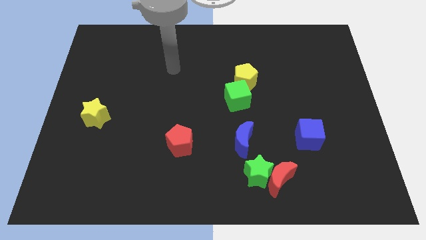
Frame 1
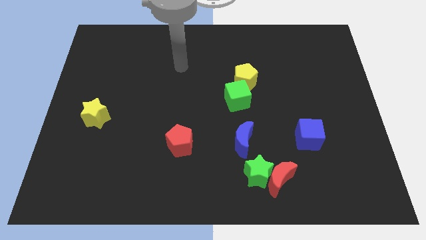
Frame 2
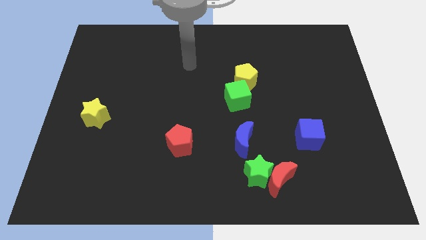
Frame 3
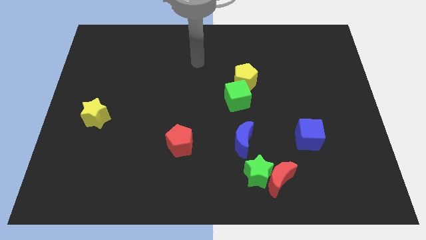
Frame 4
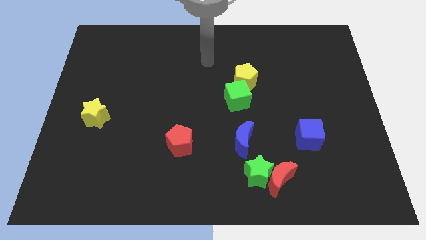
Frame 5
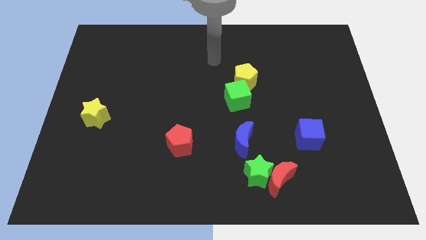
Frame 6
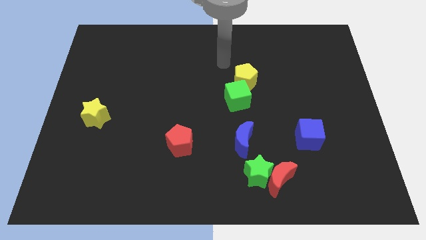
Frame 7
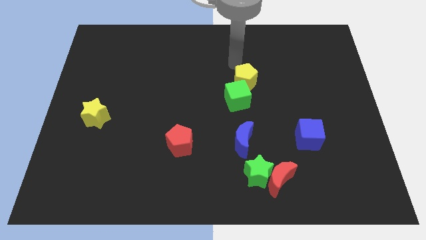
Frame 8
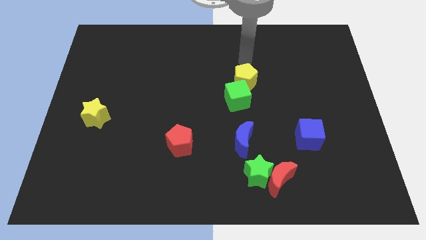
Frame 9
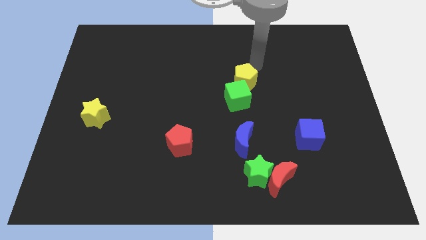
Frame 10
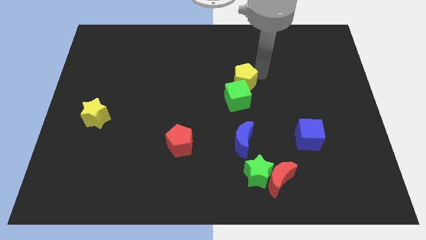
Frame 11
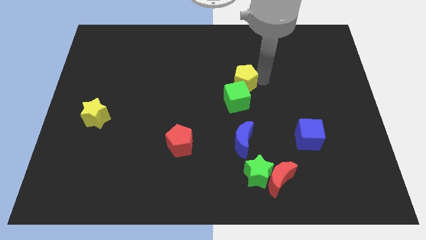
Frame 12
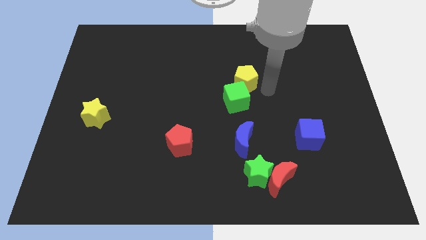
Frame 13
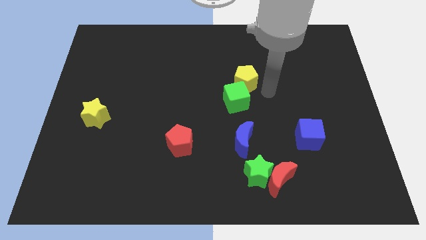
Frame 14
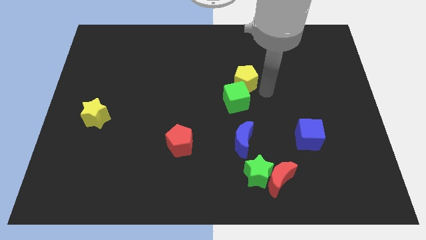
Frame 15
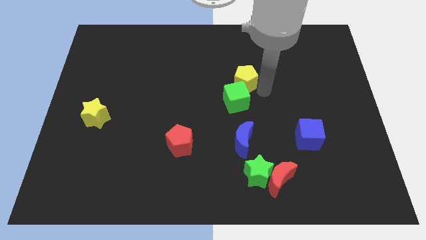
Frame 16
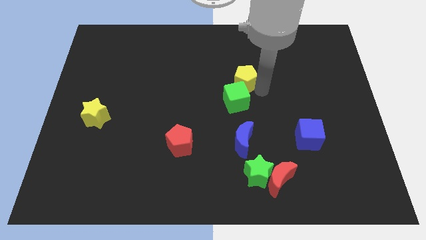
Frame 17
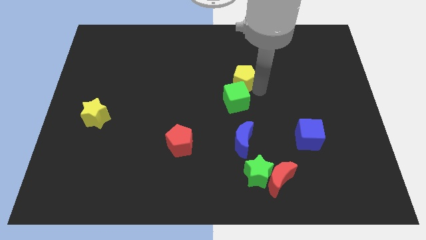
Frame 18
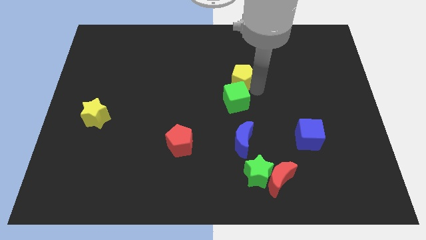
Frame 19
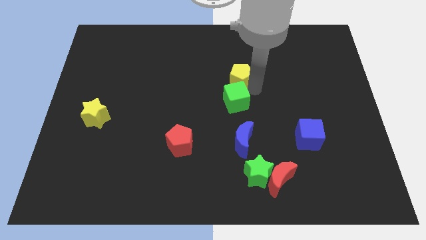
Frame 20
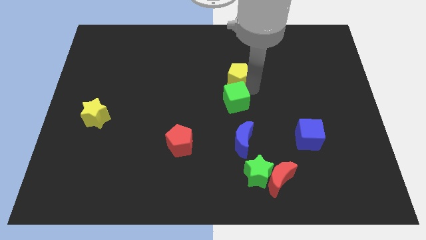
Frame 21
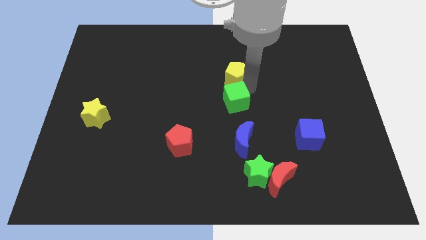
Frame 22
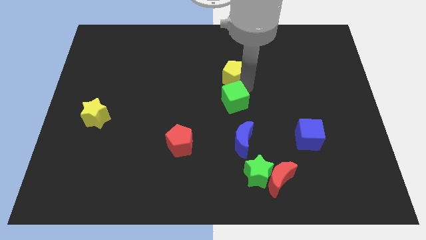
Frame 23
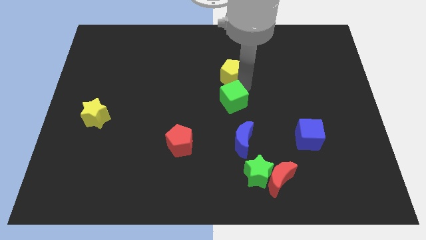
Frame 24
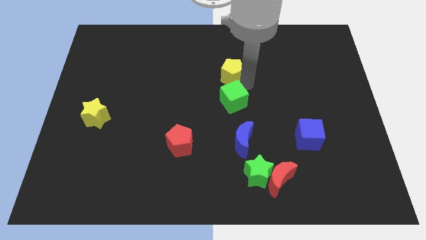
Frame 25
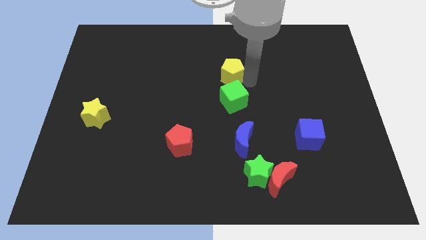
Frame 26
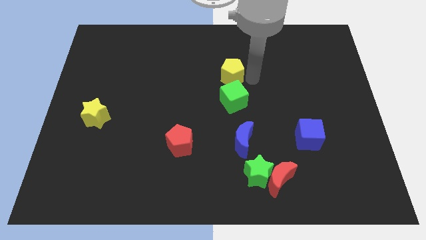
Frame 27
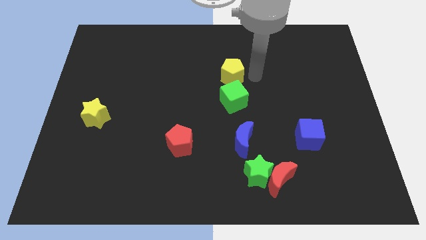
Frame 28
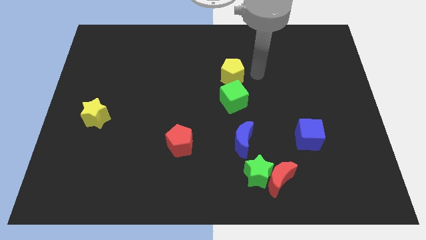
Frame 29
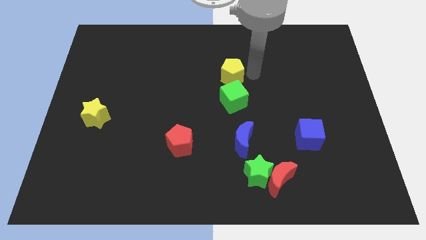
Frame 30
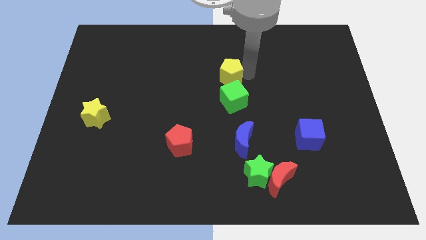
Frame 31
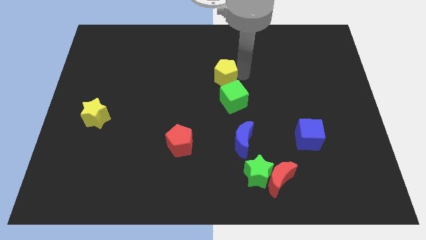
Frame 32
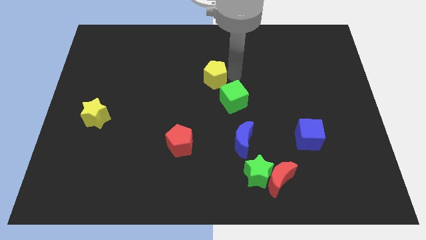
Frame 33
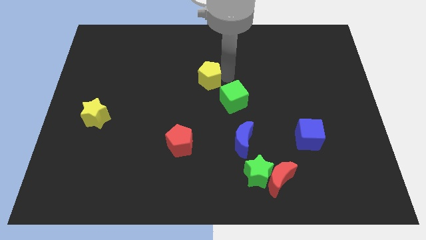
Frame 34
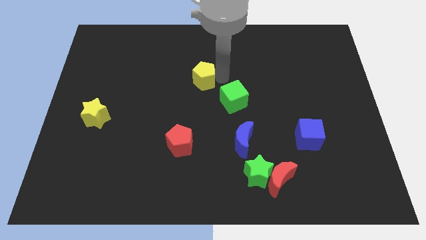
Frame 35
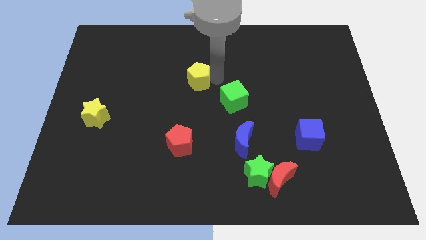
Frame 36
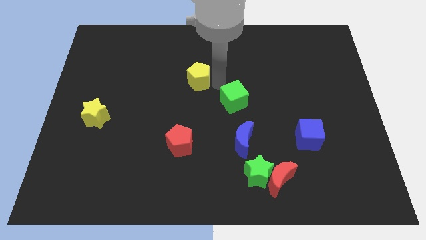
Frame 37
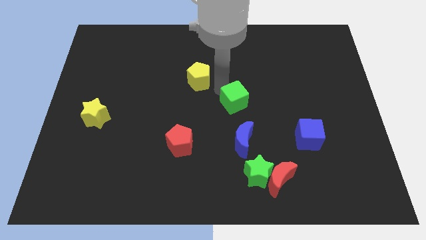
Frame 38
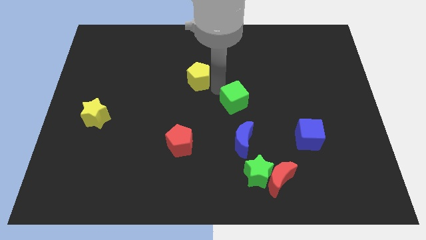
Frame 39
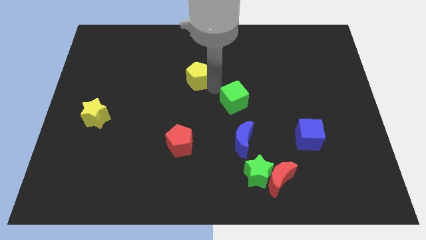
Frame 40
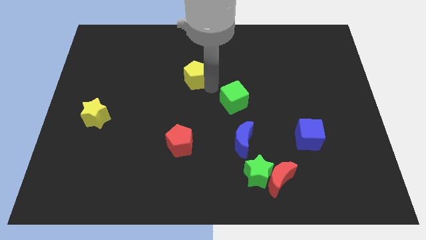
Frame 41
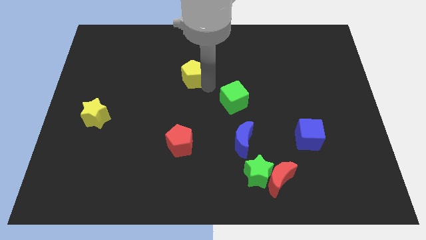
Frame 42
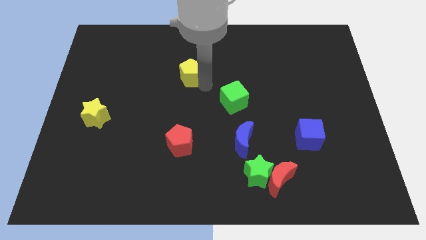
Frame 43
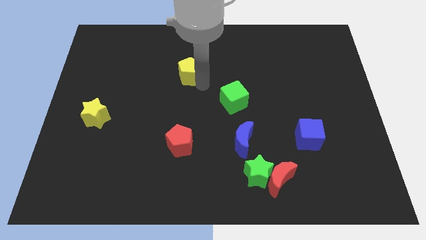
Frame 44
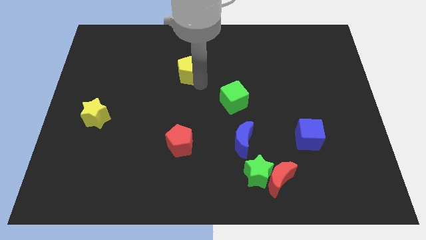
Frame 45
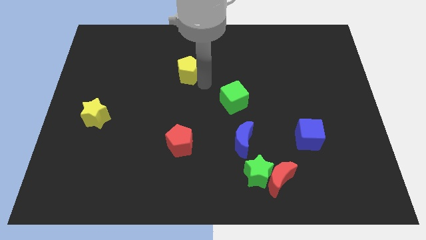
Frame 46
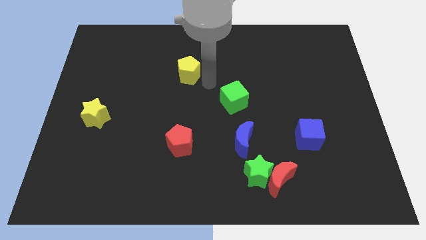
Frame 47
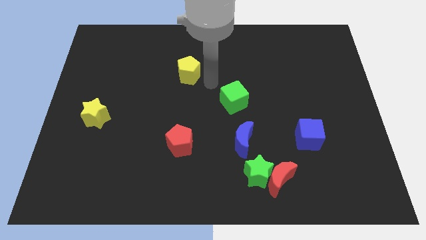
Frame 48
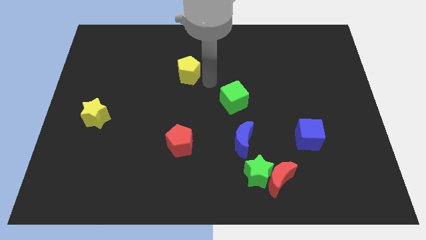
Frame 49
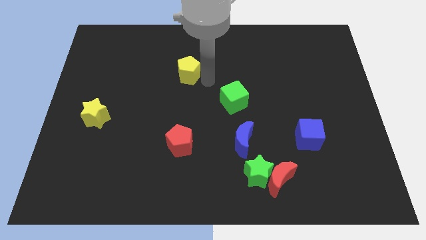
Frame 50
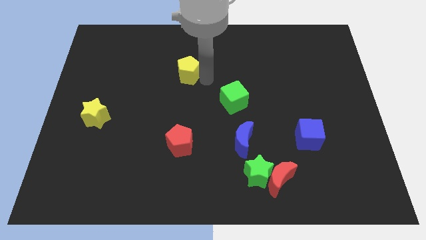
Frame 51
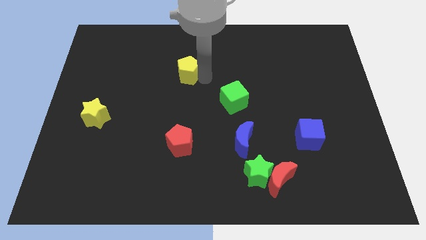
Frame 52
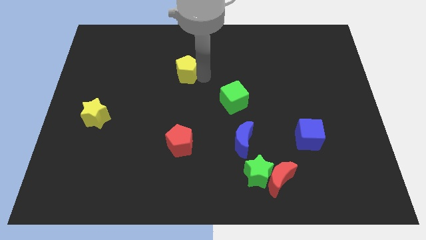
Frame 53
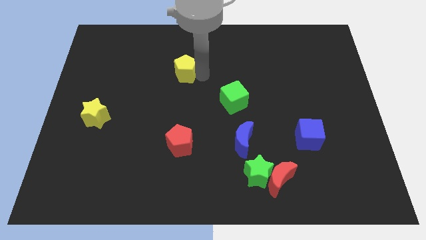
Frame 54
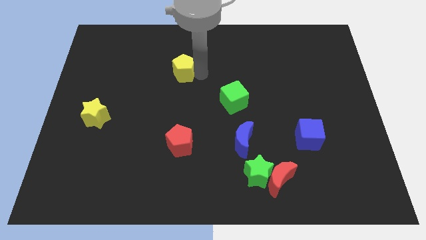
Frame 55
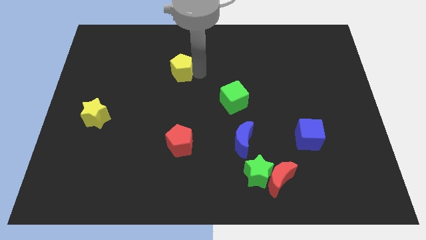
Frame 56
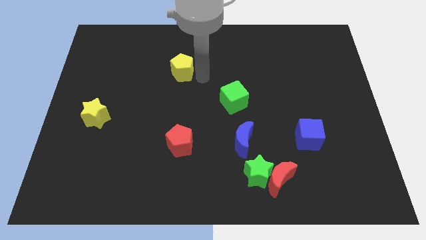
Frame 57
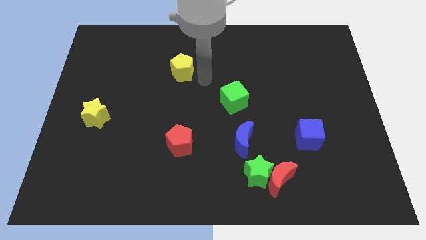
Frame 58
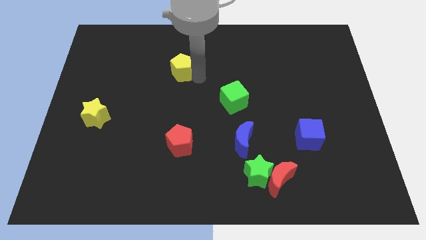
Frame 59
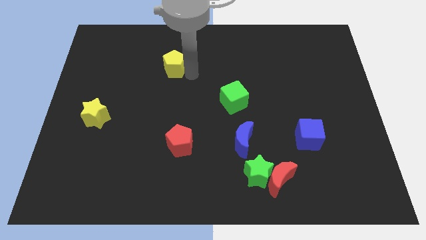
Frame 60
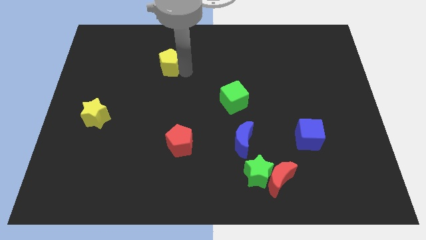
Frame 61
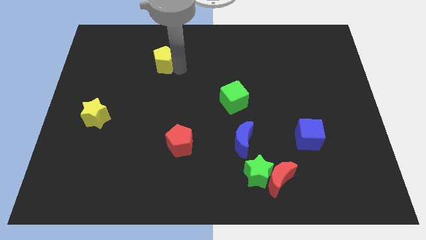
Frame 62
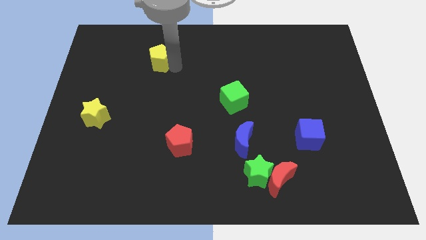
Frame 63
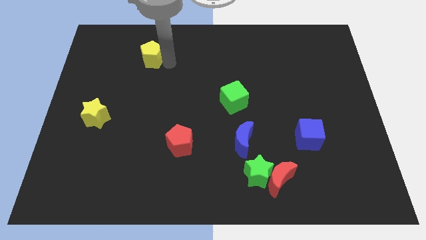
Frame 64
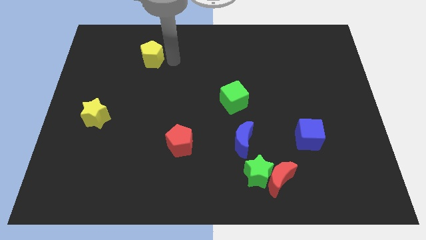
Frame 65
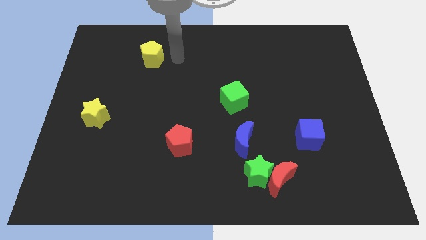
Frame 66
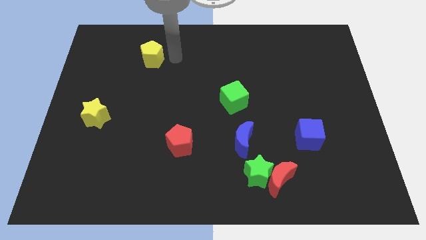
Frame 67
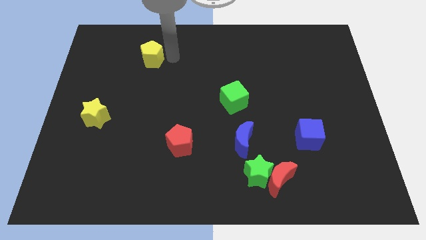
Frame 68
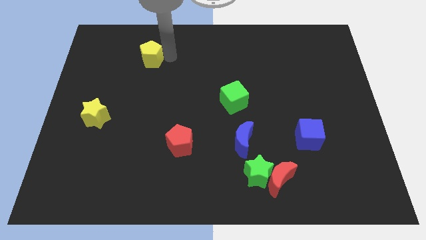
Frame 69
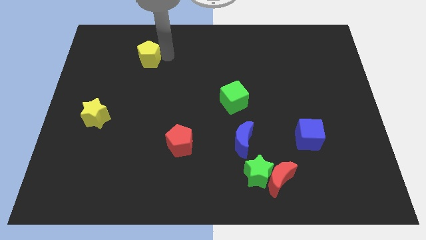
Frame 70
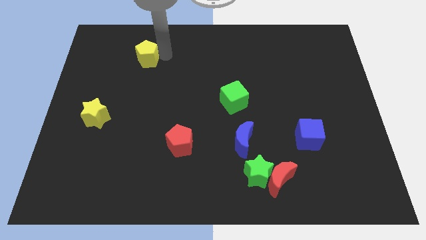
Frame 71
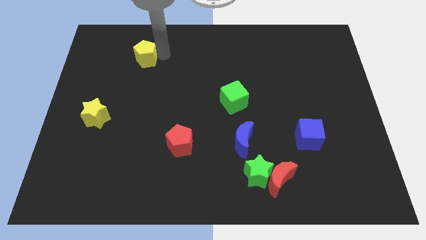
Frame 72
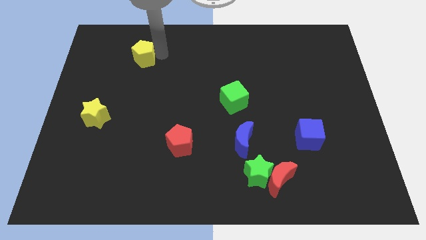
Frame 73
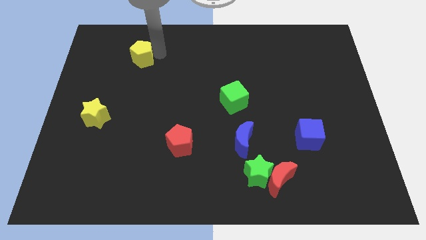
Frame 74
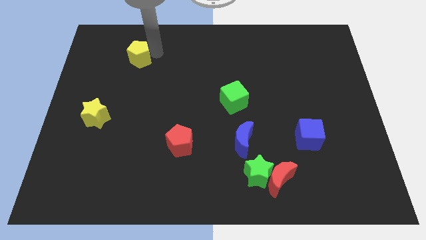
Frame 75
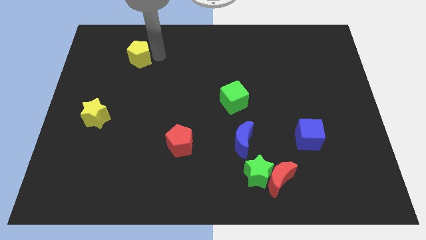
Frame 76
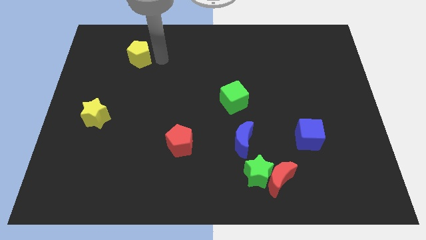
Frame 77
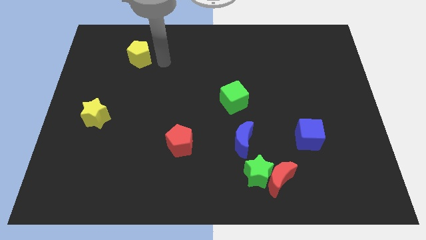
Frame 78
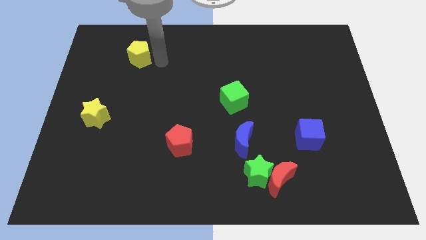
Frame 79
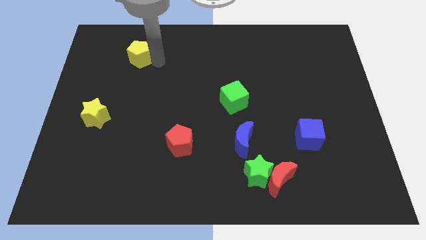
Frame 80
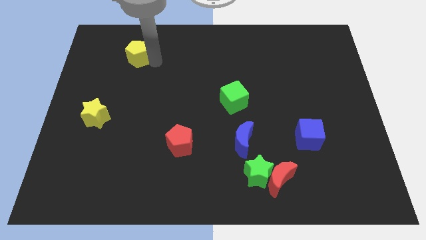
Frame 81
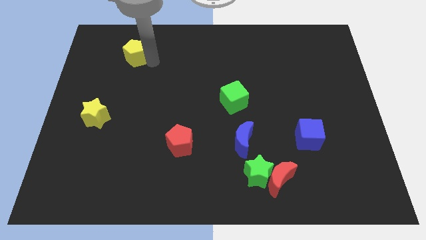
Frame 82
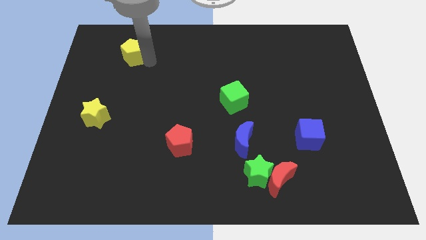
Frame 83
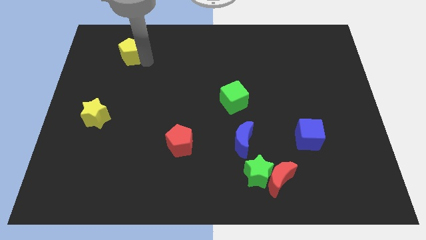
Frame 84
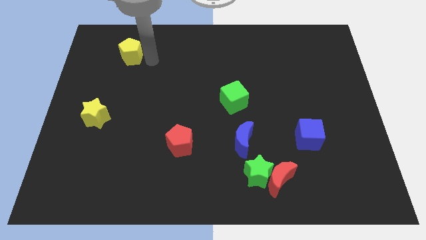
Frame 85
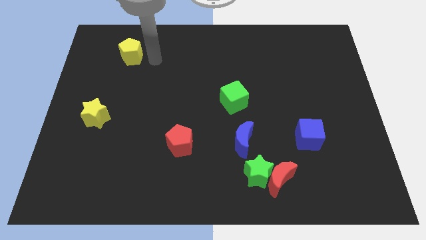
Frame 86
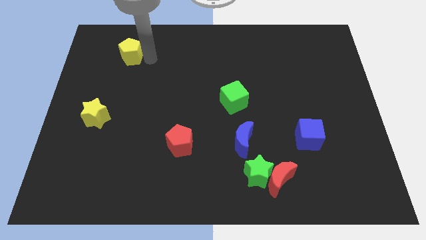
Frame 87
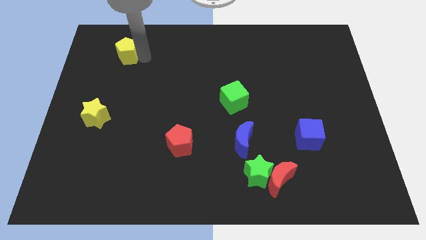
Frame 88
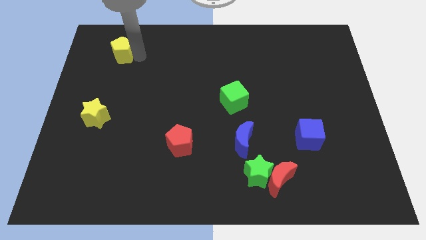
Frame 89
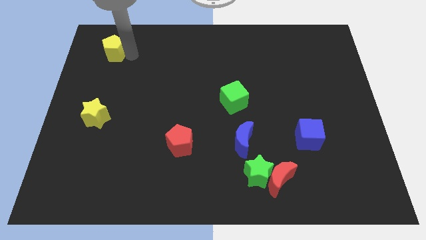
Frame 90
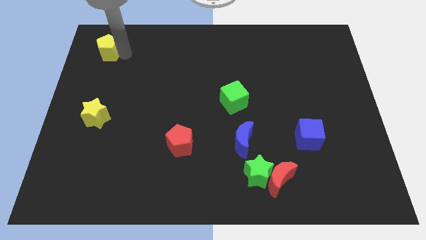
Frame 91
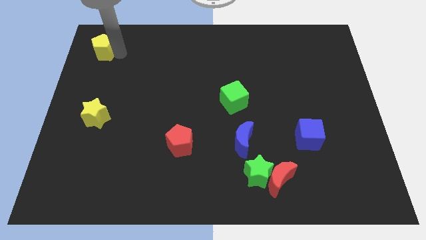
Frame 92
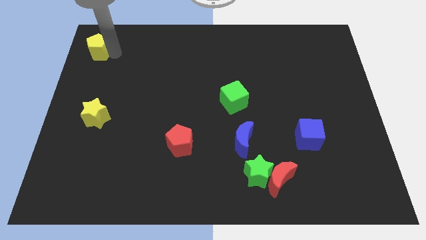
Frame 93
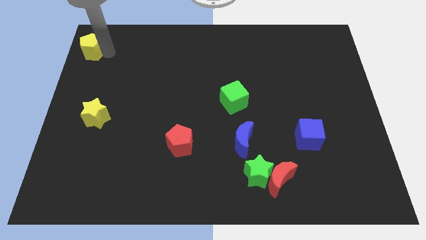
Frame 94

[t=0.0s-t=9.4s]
slide the yellow pentagon to the top left
